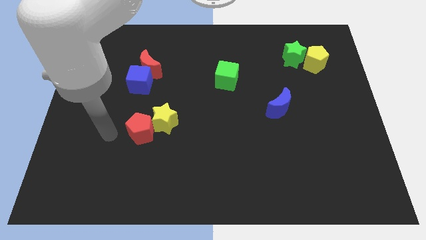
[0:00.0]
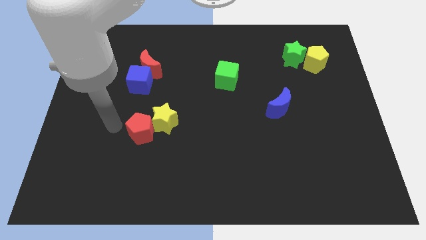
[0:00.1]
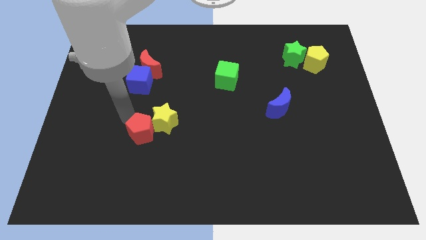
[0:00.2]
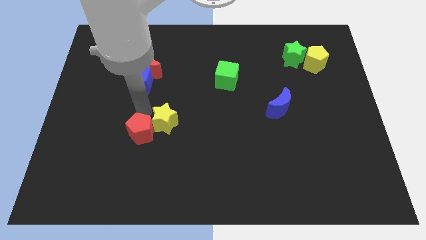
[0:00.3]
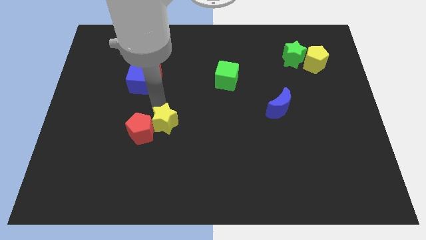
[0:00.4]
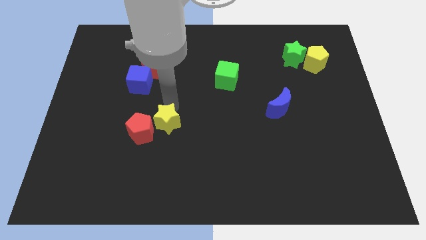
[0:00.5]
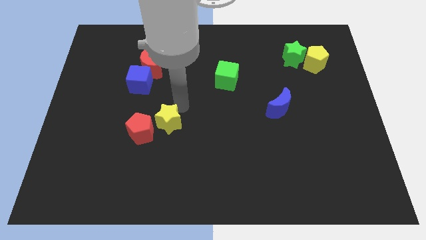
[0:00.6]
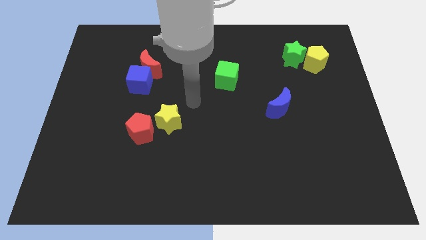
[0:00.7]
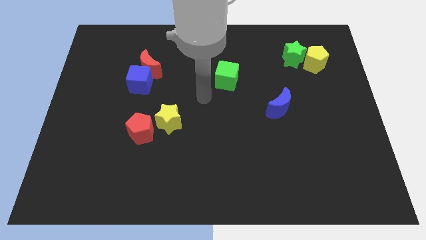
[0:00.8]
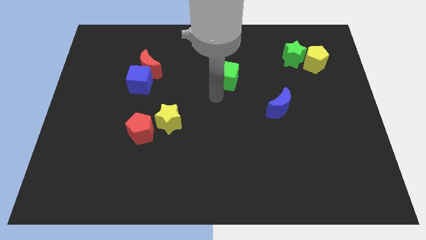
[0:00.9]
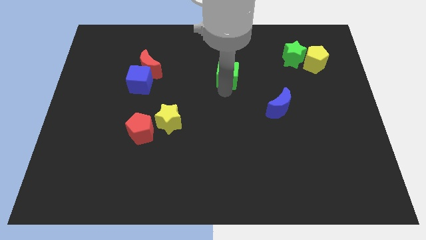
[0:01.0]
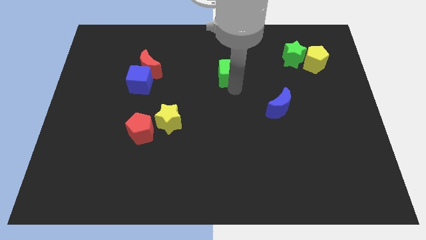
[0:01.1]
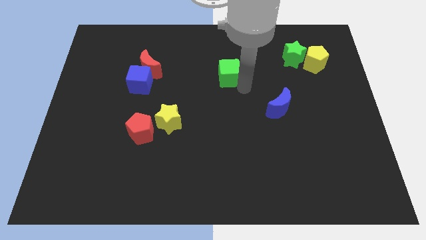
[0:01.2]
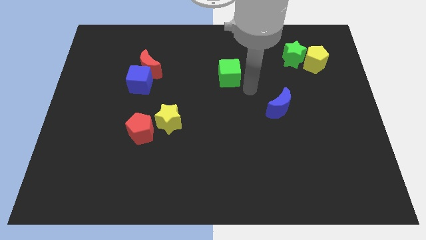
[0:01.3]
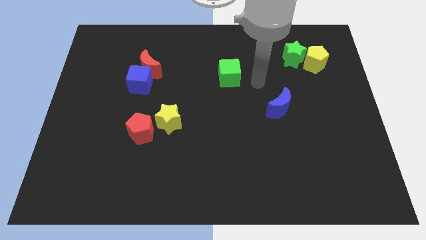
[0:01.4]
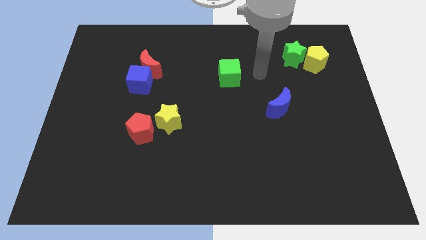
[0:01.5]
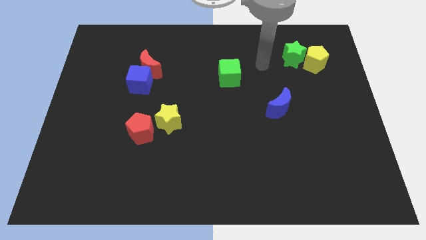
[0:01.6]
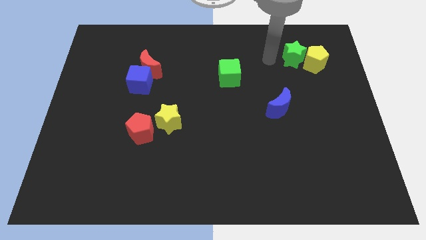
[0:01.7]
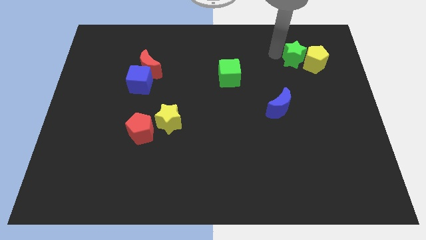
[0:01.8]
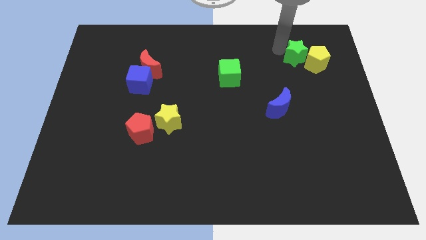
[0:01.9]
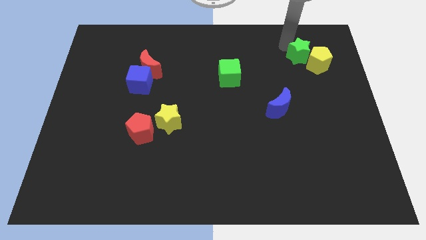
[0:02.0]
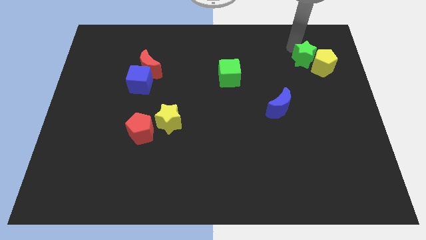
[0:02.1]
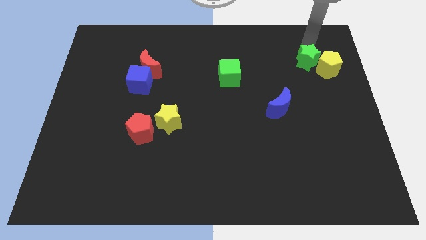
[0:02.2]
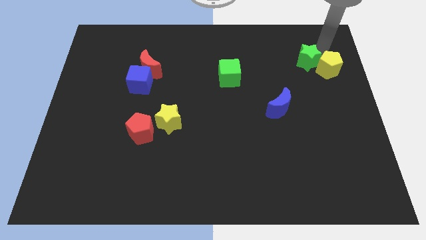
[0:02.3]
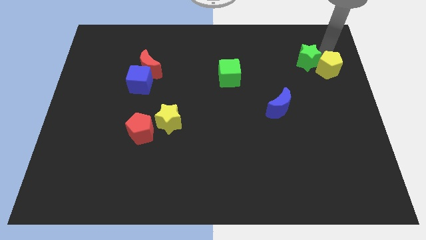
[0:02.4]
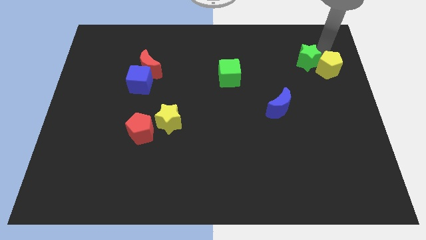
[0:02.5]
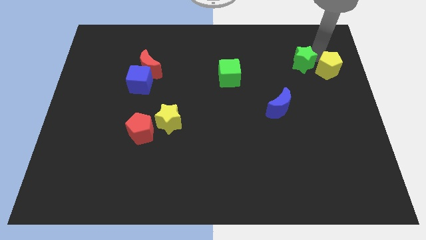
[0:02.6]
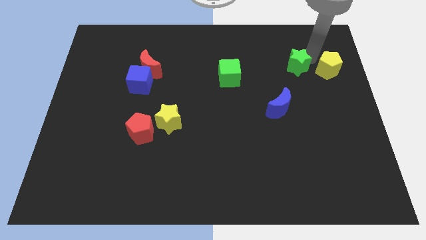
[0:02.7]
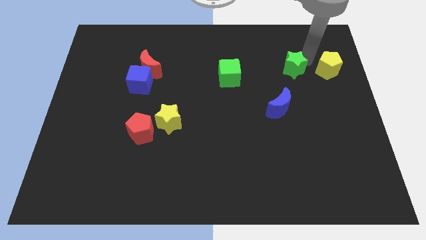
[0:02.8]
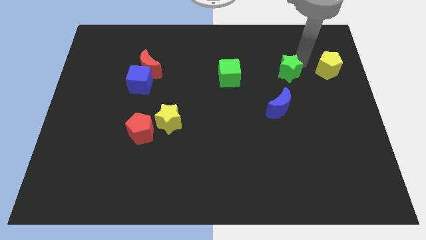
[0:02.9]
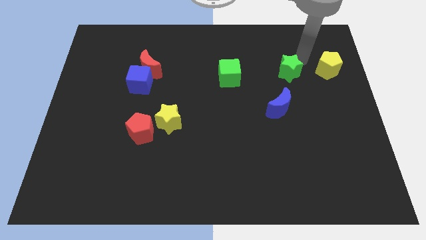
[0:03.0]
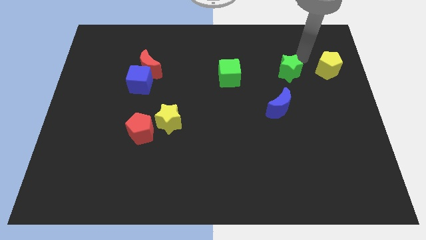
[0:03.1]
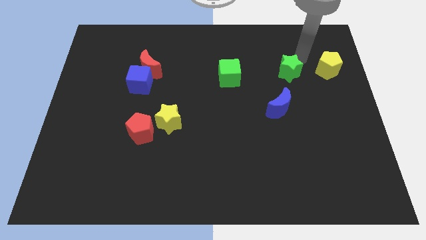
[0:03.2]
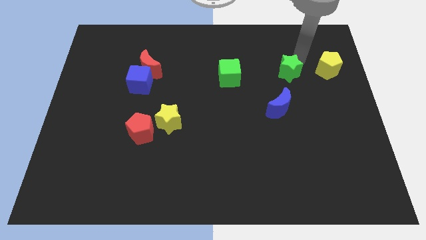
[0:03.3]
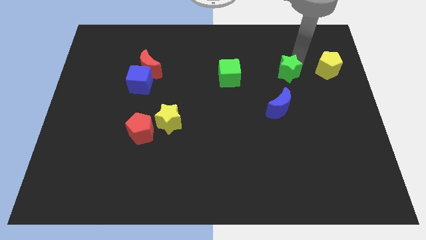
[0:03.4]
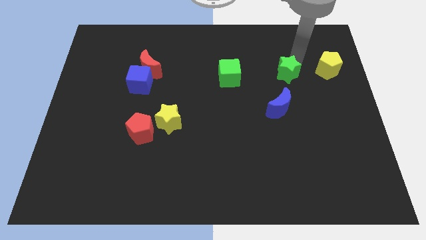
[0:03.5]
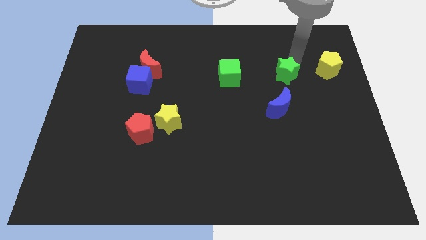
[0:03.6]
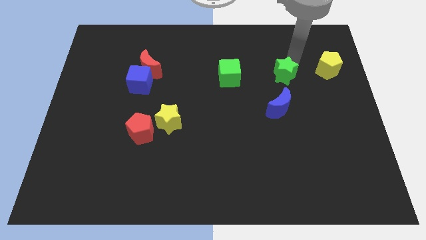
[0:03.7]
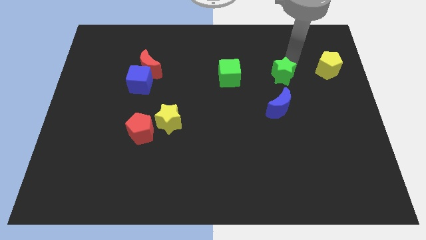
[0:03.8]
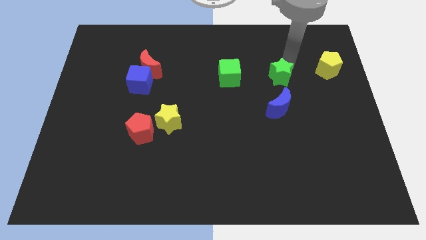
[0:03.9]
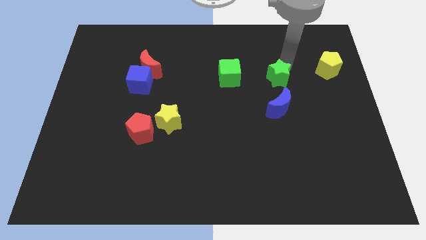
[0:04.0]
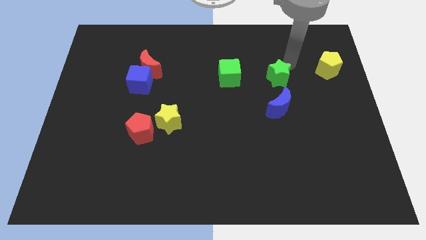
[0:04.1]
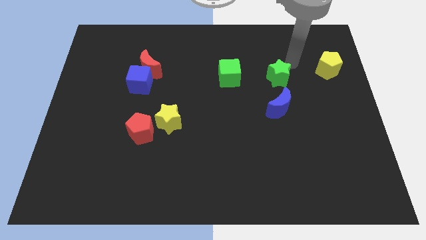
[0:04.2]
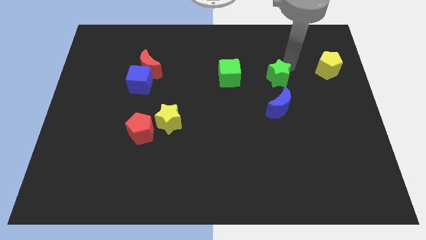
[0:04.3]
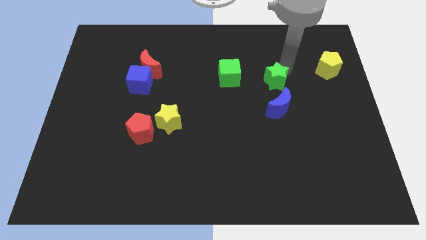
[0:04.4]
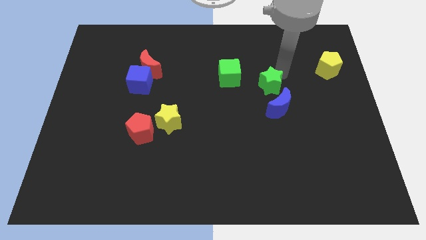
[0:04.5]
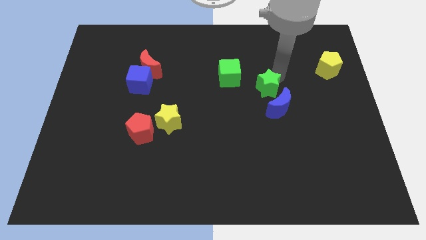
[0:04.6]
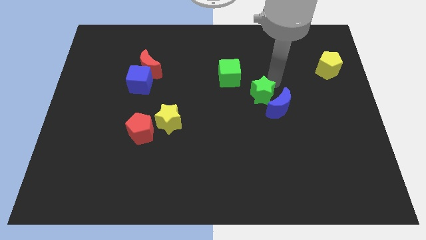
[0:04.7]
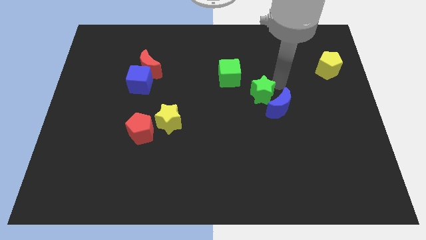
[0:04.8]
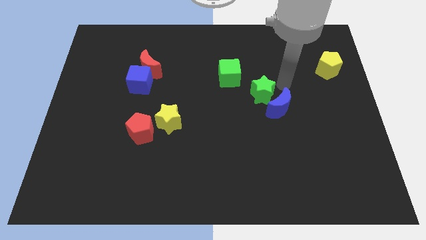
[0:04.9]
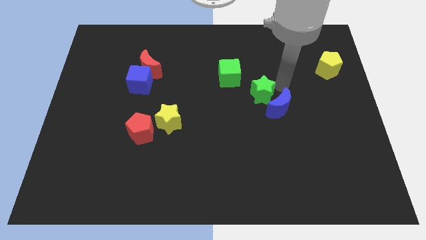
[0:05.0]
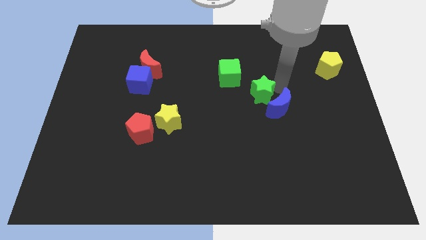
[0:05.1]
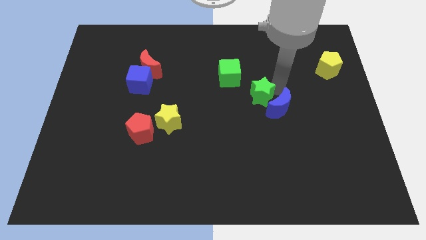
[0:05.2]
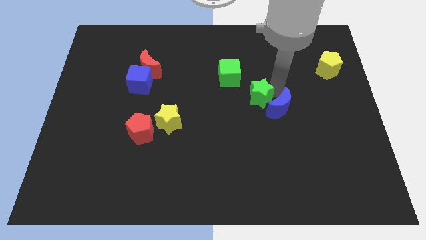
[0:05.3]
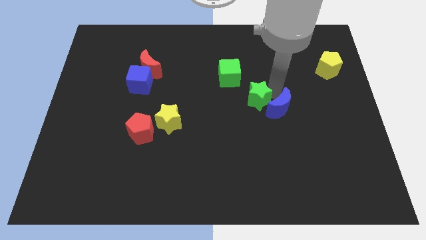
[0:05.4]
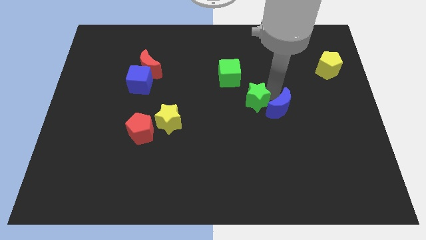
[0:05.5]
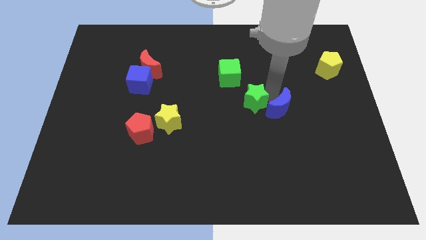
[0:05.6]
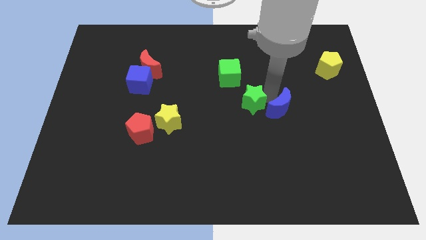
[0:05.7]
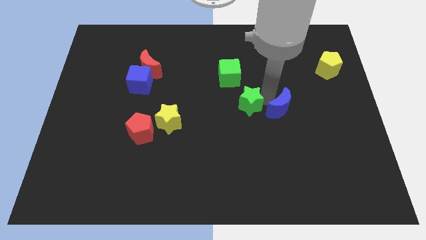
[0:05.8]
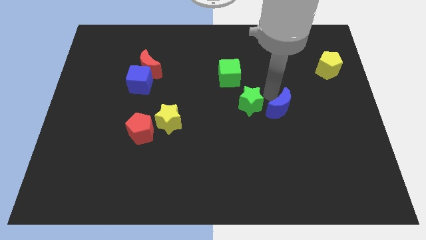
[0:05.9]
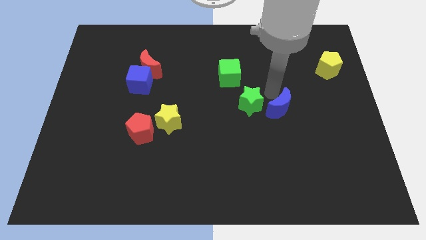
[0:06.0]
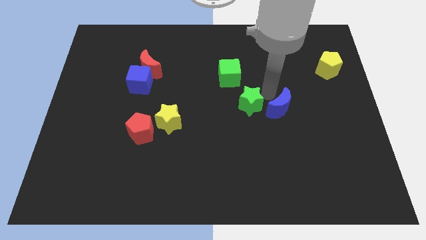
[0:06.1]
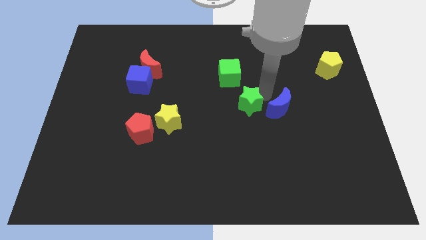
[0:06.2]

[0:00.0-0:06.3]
push the green star downwards and to the left

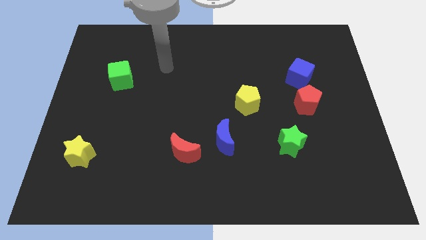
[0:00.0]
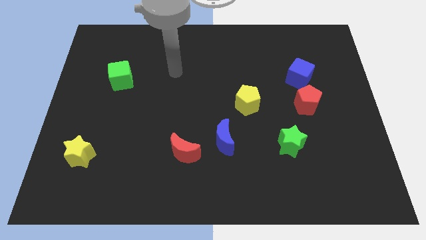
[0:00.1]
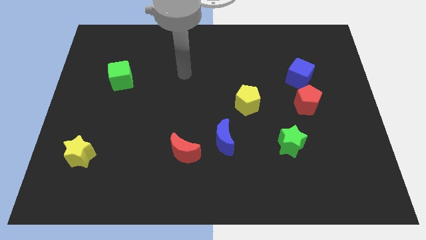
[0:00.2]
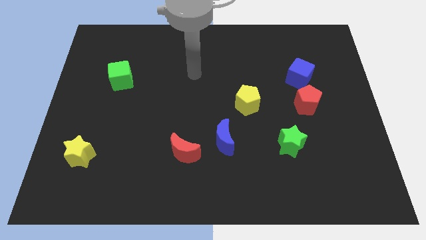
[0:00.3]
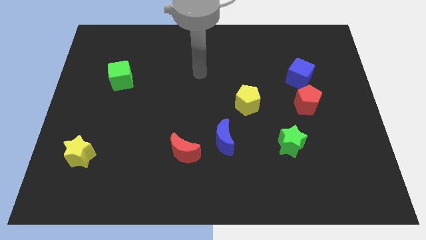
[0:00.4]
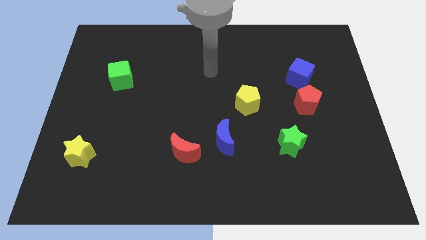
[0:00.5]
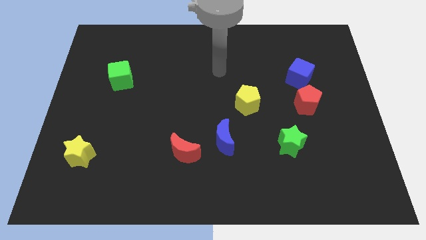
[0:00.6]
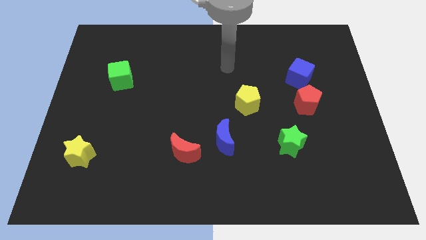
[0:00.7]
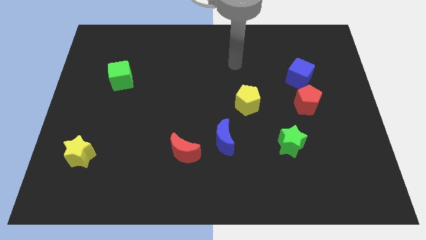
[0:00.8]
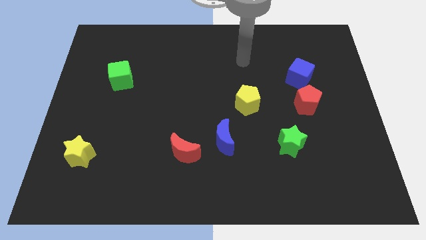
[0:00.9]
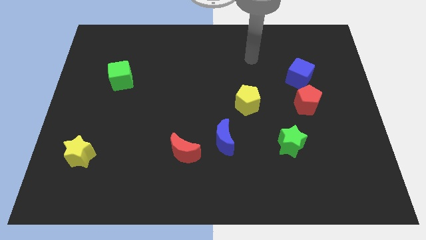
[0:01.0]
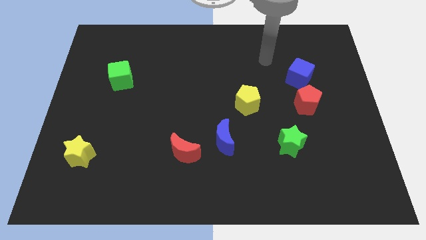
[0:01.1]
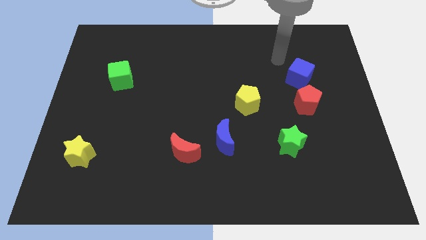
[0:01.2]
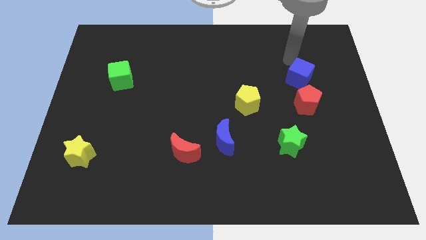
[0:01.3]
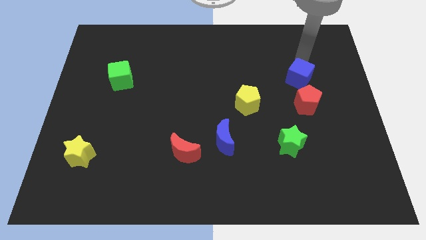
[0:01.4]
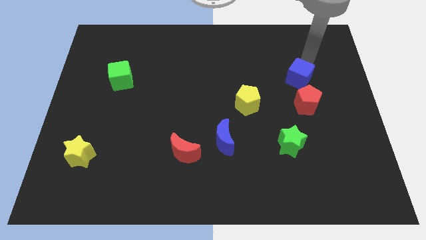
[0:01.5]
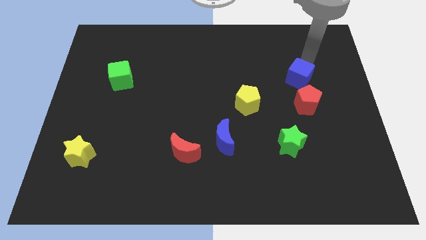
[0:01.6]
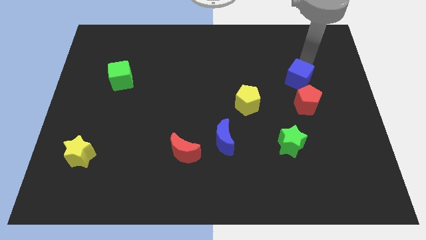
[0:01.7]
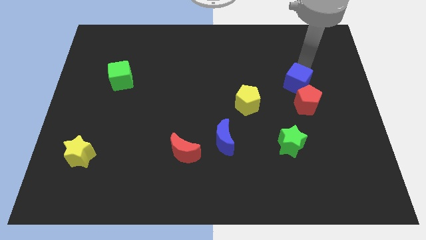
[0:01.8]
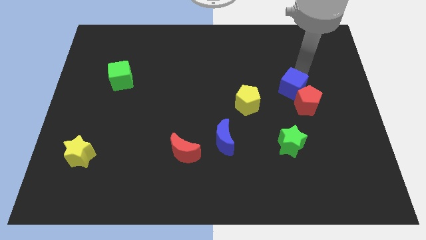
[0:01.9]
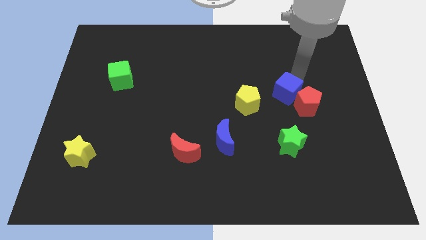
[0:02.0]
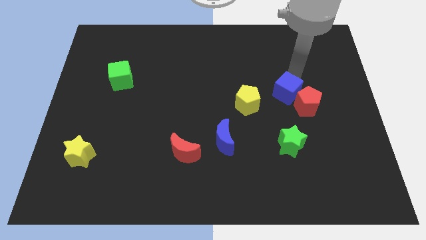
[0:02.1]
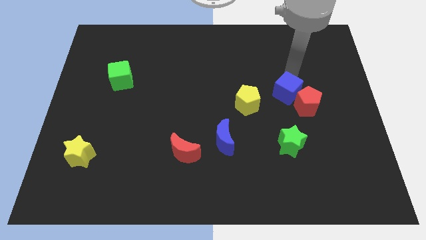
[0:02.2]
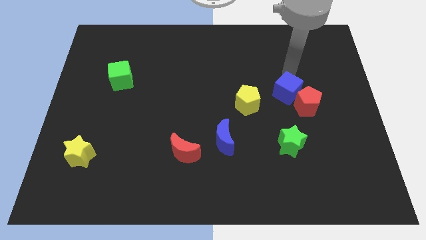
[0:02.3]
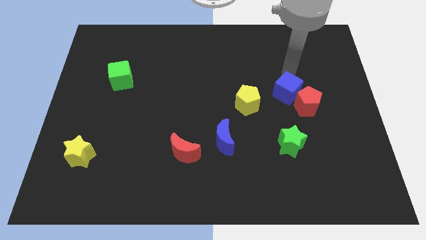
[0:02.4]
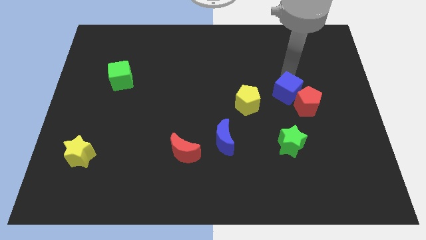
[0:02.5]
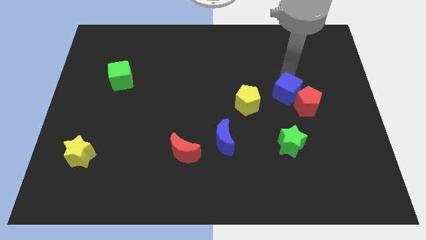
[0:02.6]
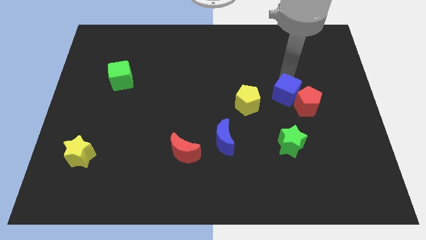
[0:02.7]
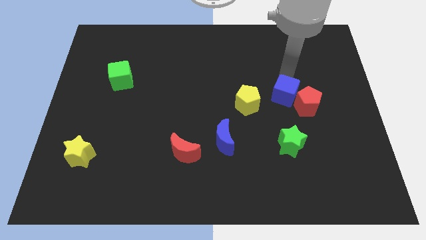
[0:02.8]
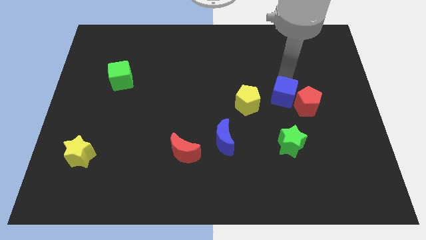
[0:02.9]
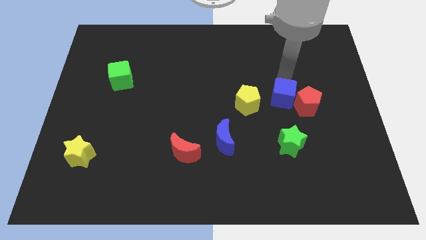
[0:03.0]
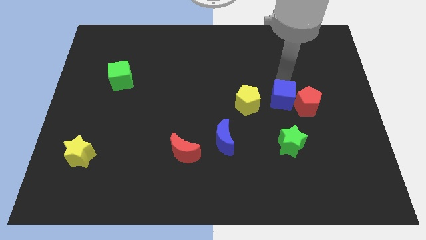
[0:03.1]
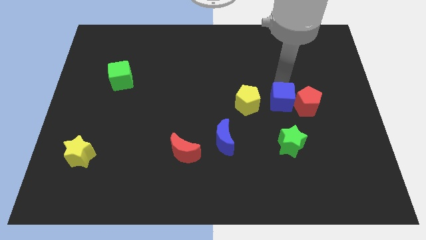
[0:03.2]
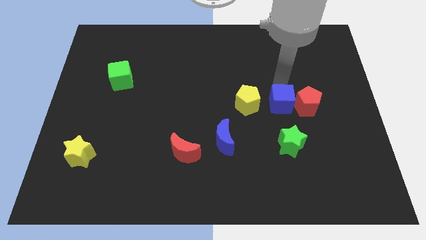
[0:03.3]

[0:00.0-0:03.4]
push the blue cube down somewhat
